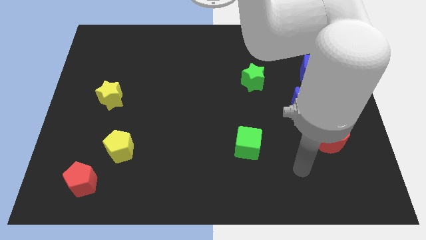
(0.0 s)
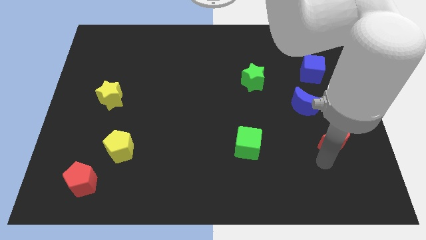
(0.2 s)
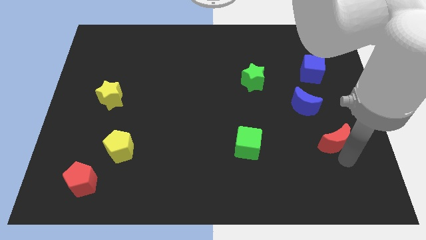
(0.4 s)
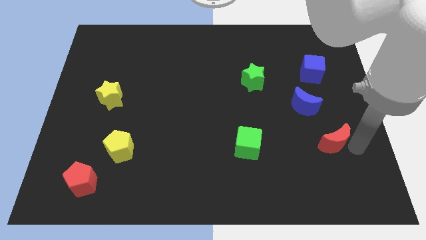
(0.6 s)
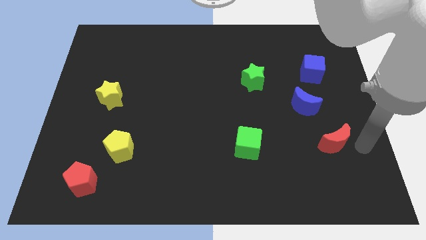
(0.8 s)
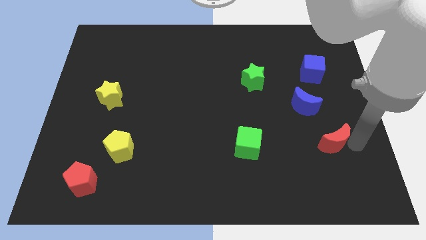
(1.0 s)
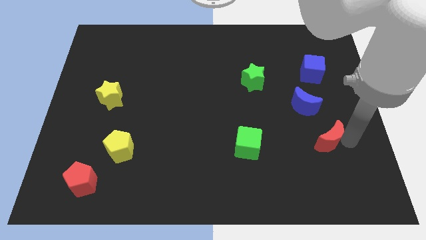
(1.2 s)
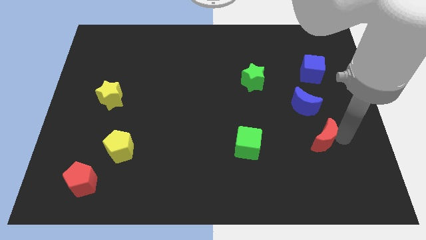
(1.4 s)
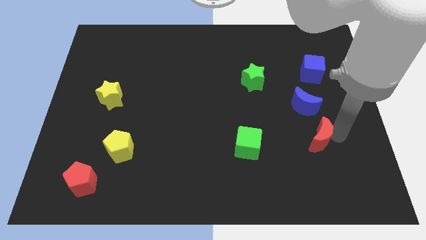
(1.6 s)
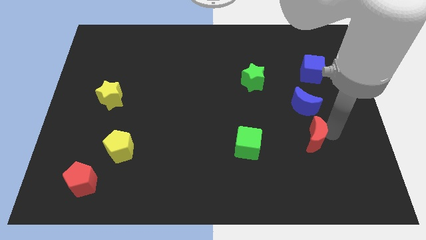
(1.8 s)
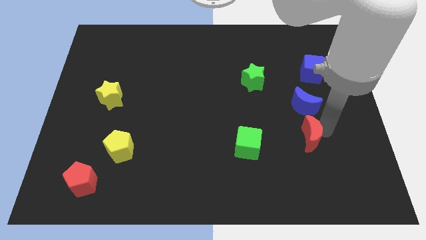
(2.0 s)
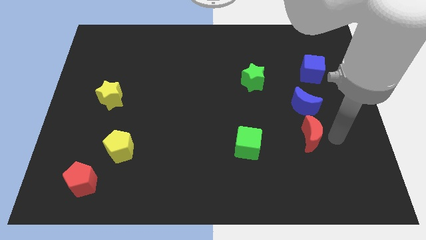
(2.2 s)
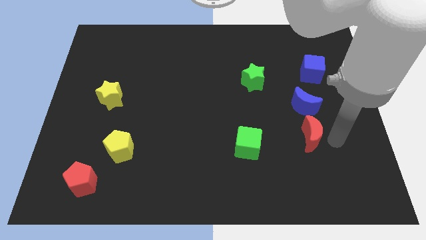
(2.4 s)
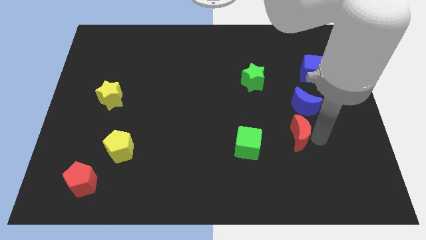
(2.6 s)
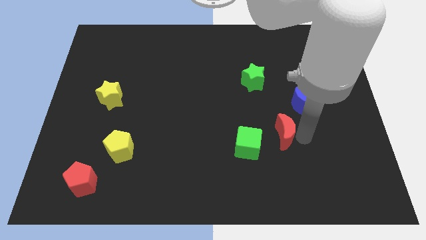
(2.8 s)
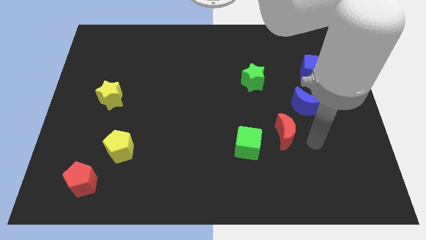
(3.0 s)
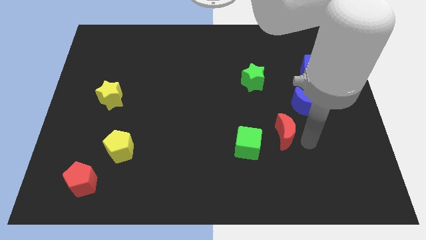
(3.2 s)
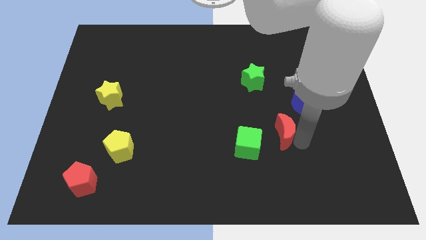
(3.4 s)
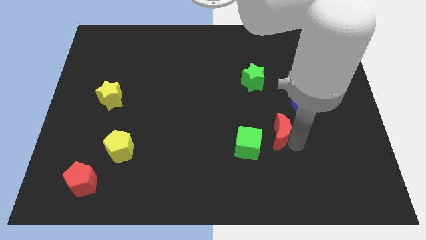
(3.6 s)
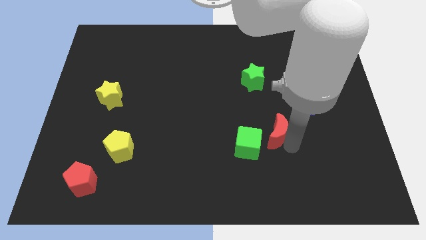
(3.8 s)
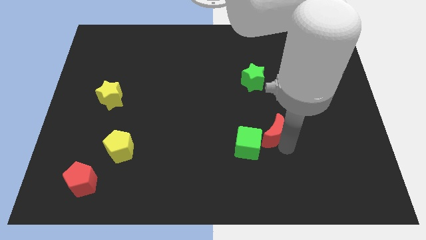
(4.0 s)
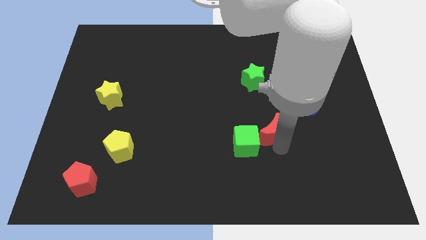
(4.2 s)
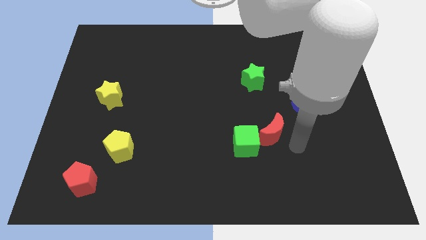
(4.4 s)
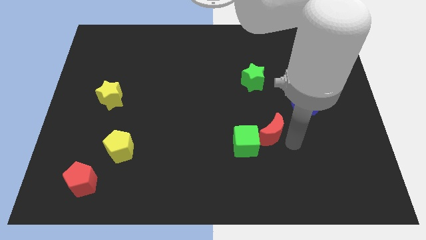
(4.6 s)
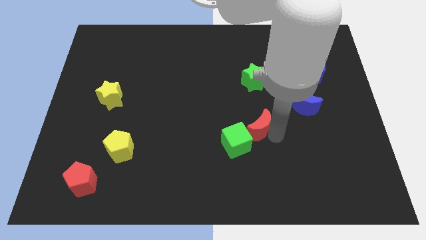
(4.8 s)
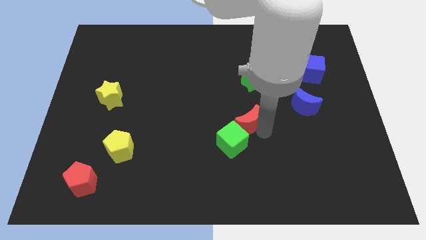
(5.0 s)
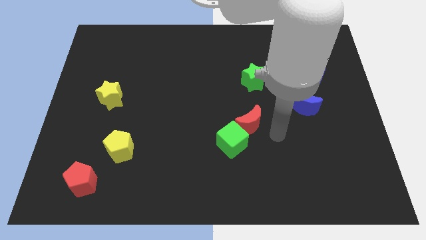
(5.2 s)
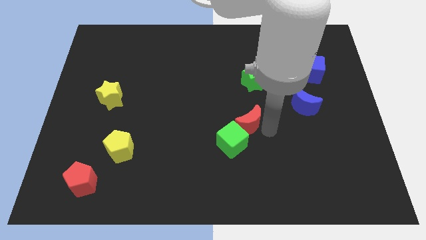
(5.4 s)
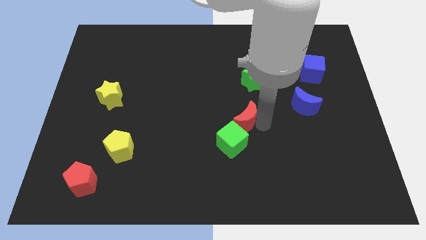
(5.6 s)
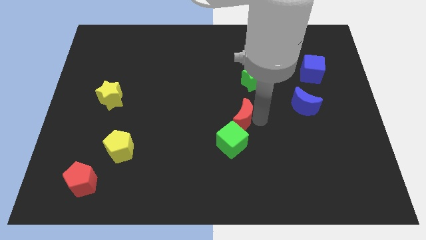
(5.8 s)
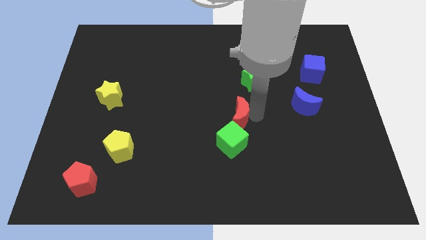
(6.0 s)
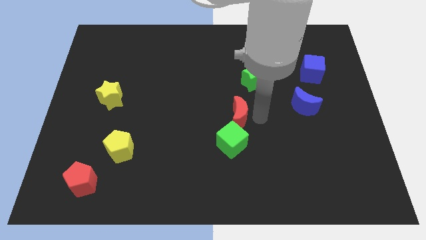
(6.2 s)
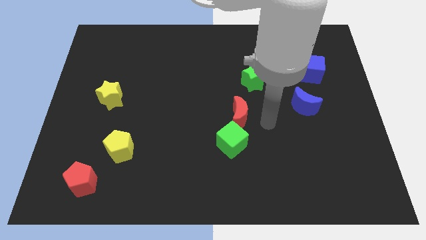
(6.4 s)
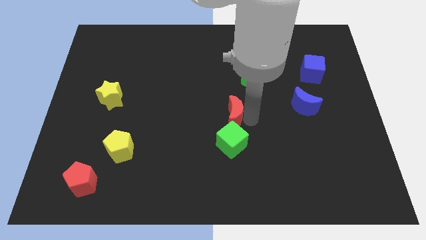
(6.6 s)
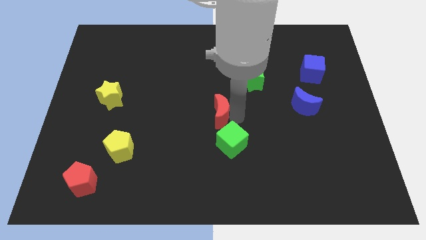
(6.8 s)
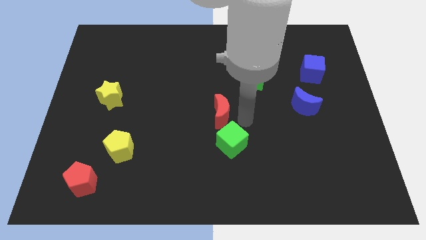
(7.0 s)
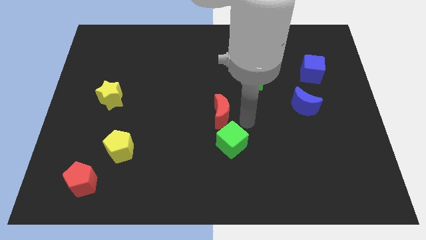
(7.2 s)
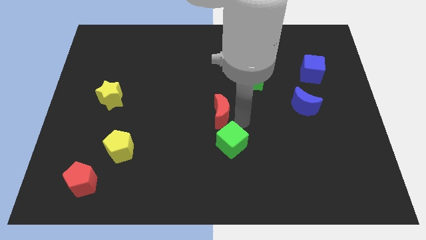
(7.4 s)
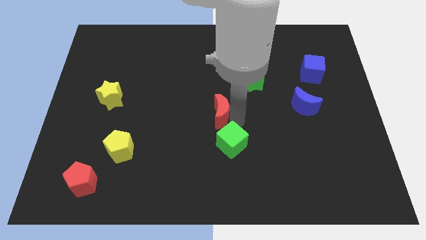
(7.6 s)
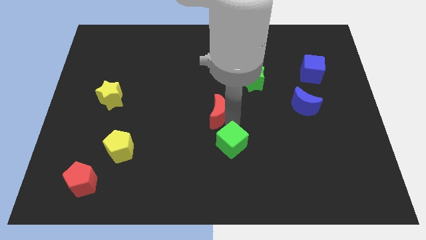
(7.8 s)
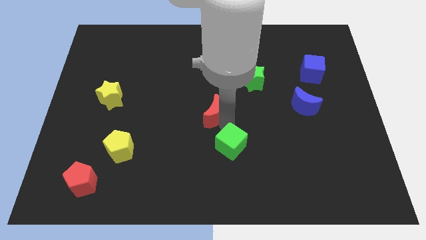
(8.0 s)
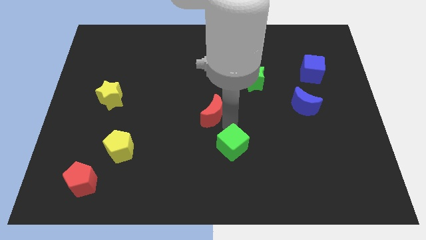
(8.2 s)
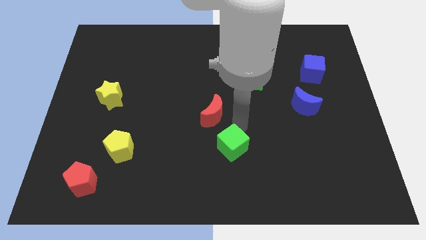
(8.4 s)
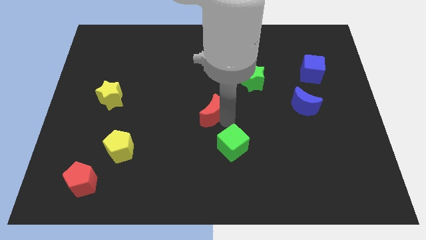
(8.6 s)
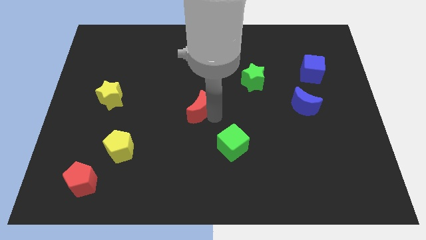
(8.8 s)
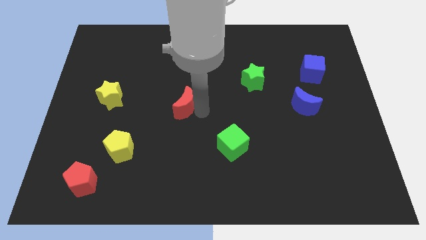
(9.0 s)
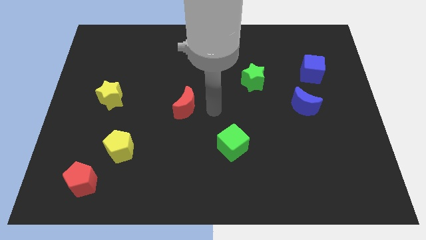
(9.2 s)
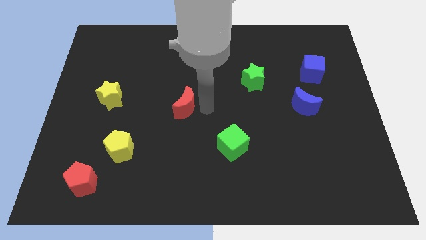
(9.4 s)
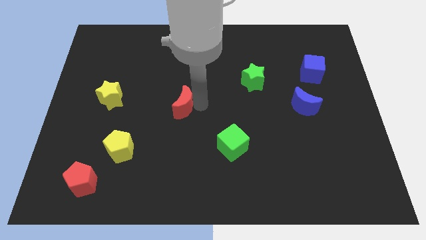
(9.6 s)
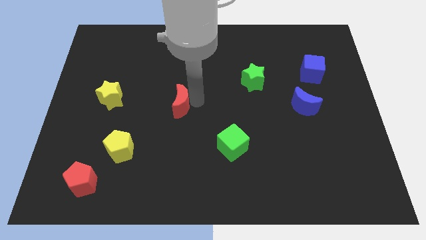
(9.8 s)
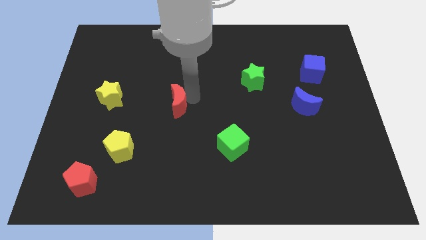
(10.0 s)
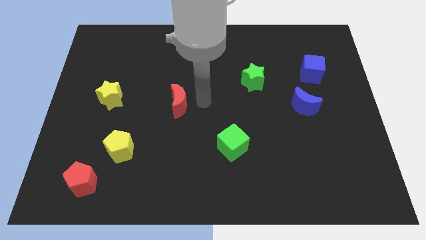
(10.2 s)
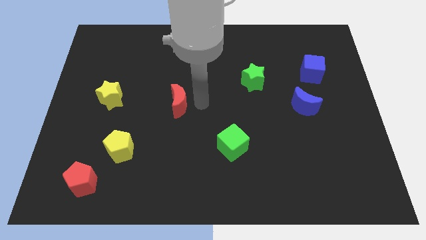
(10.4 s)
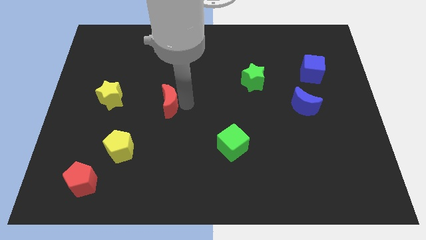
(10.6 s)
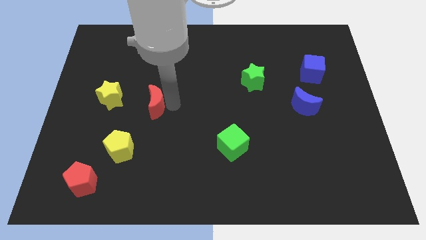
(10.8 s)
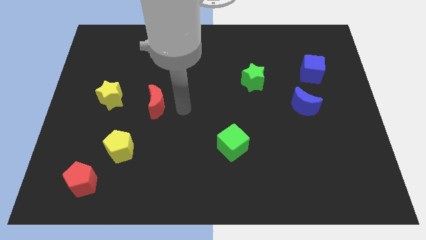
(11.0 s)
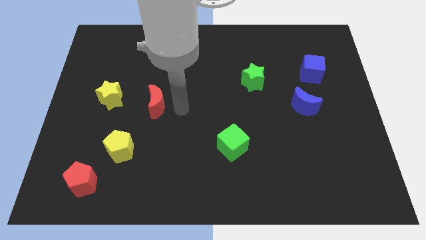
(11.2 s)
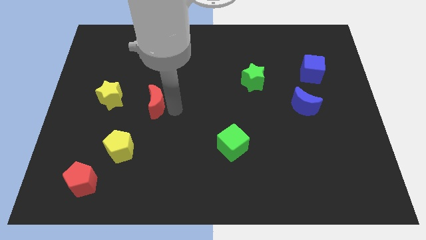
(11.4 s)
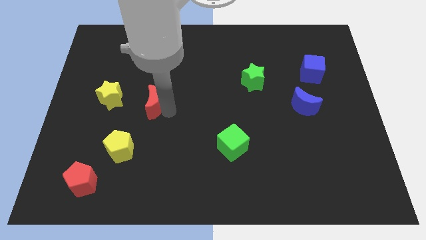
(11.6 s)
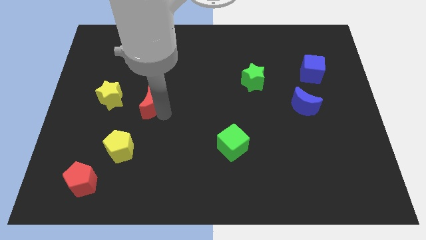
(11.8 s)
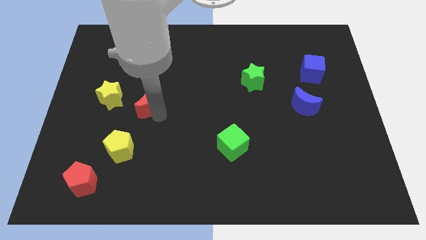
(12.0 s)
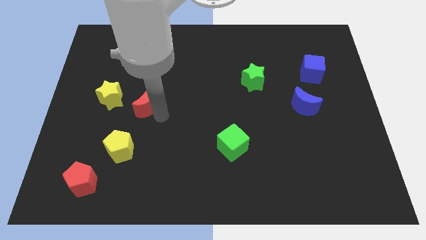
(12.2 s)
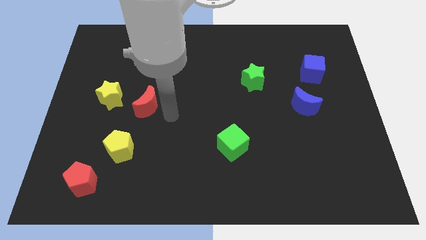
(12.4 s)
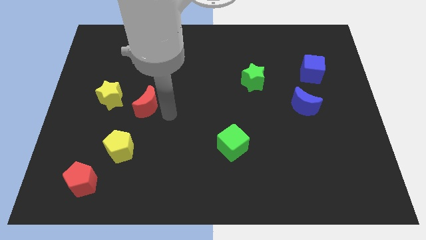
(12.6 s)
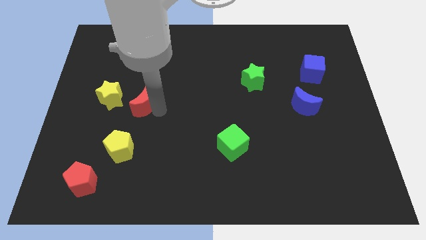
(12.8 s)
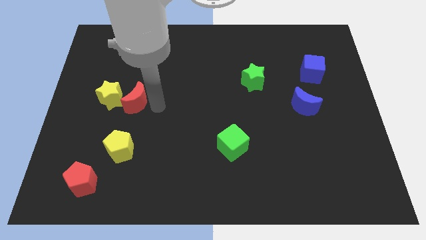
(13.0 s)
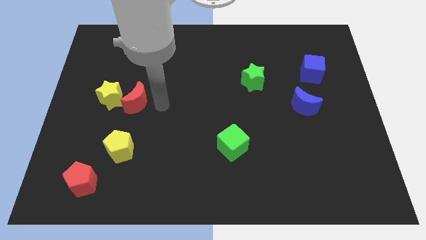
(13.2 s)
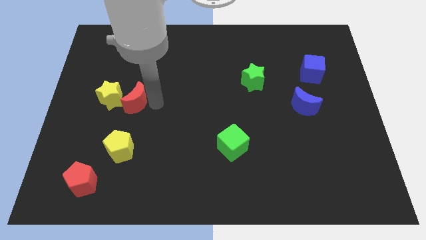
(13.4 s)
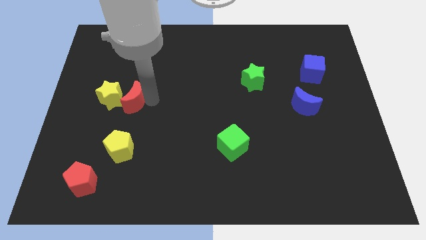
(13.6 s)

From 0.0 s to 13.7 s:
move the red moon next to the yellow star
